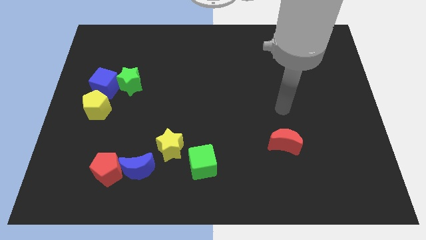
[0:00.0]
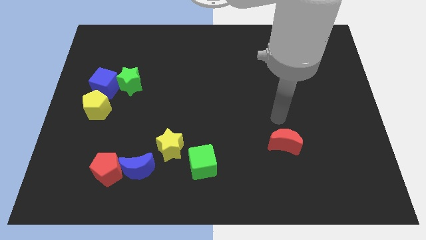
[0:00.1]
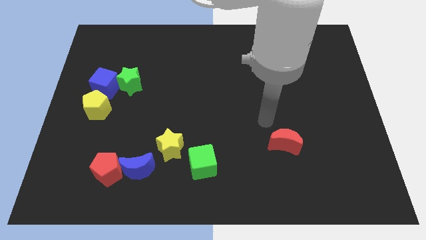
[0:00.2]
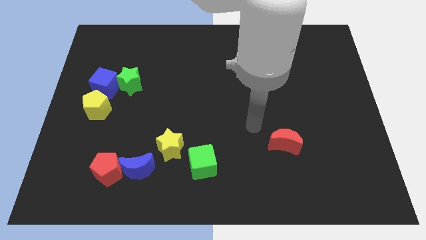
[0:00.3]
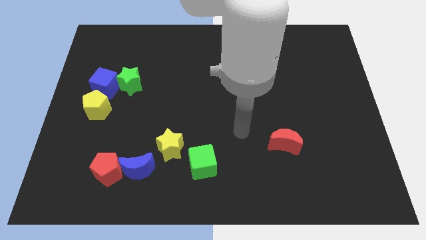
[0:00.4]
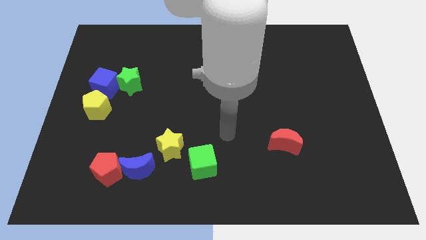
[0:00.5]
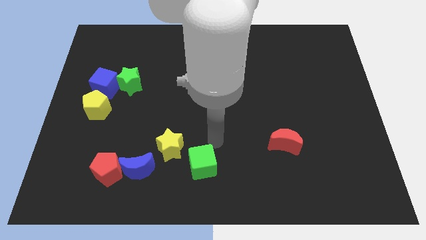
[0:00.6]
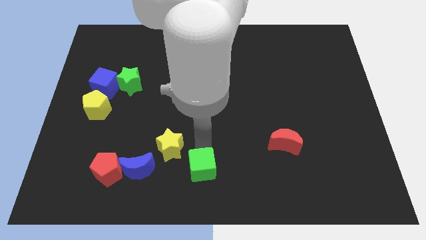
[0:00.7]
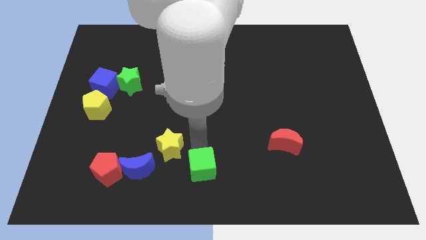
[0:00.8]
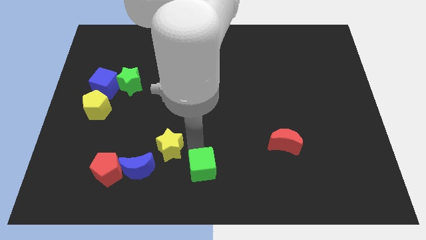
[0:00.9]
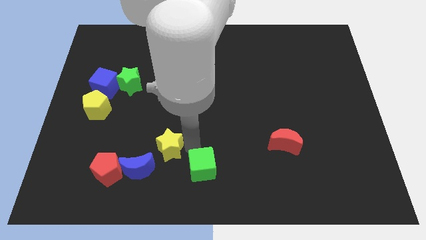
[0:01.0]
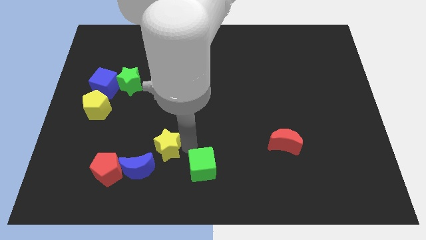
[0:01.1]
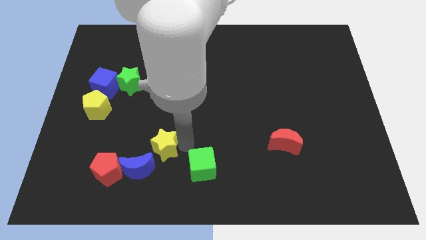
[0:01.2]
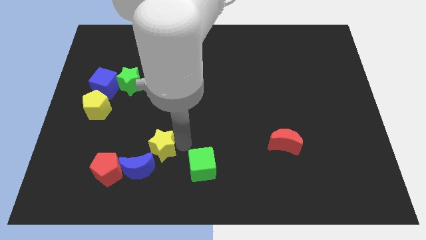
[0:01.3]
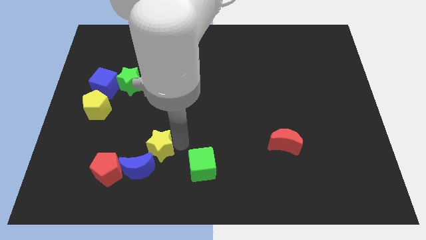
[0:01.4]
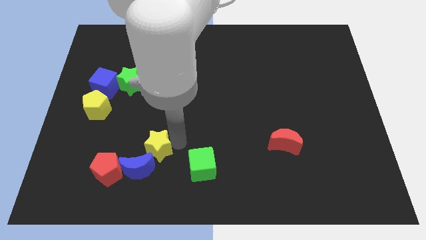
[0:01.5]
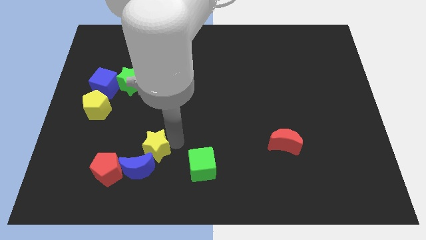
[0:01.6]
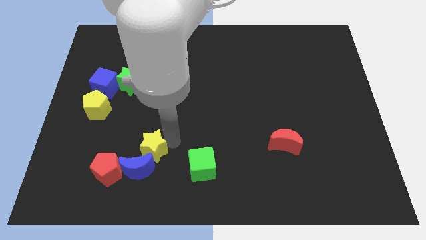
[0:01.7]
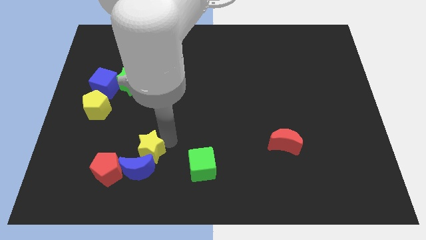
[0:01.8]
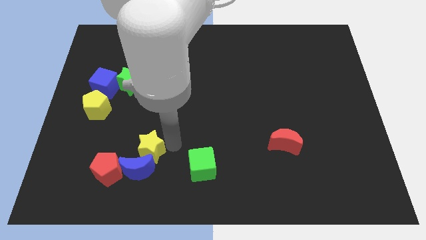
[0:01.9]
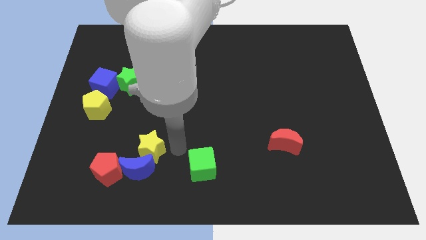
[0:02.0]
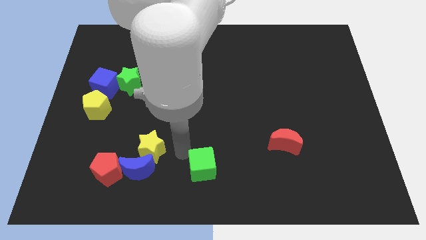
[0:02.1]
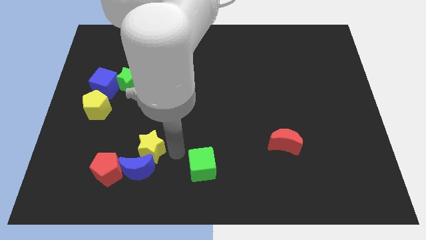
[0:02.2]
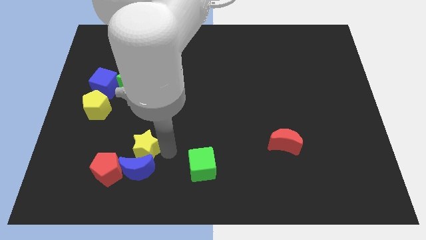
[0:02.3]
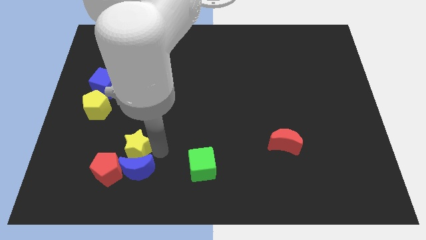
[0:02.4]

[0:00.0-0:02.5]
slide the yellow star left somewhat

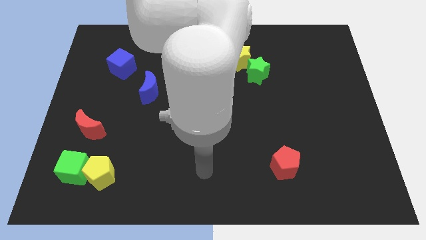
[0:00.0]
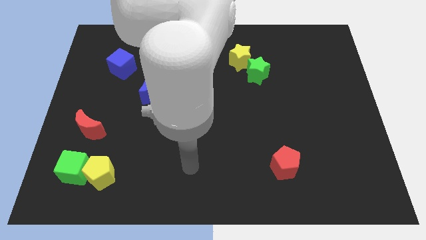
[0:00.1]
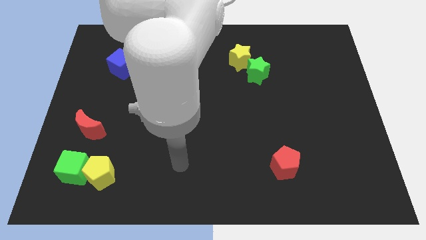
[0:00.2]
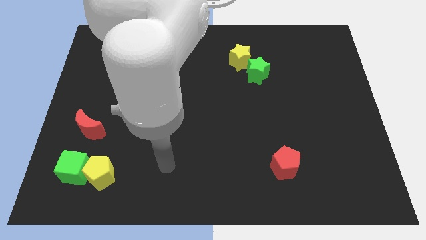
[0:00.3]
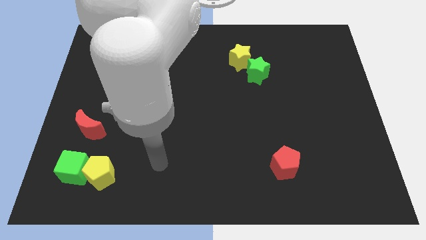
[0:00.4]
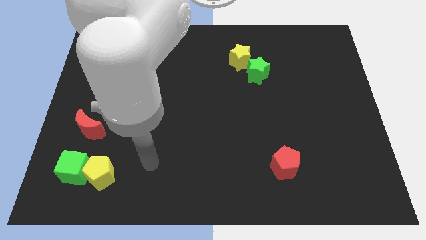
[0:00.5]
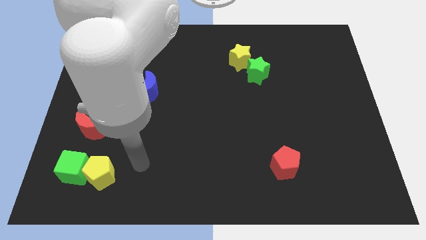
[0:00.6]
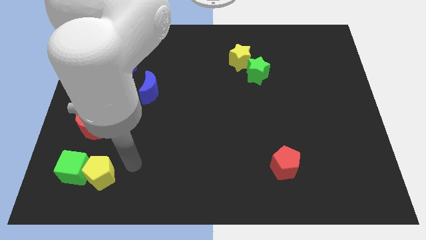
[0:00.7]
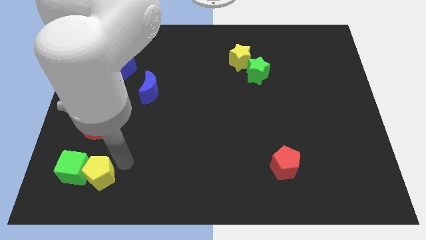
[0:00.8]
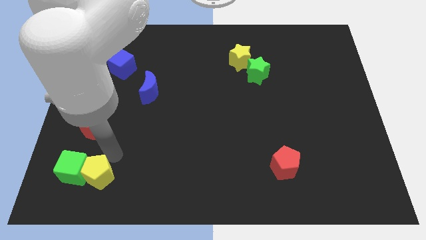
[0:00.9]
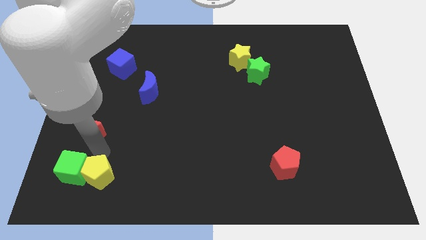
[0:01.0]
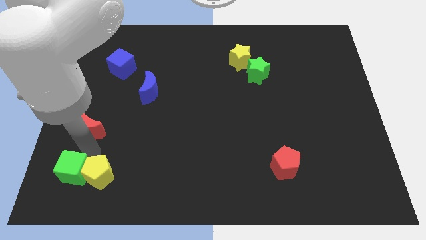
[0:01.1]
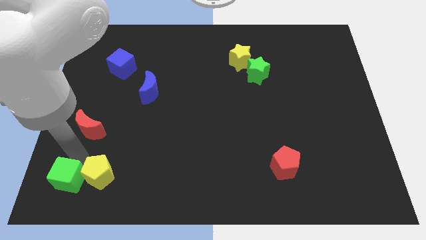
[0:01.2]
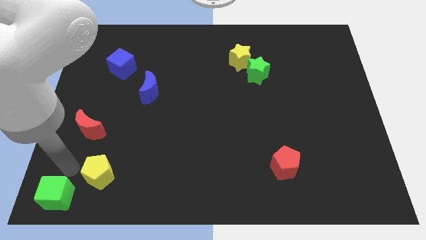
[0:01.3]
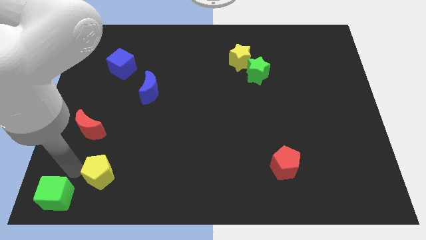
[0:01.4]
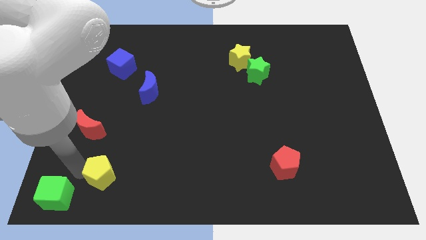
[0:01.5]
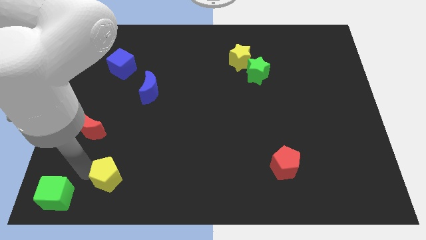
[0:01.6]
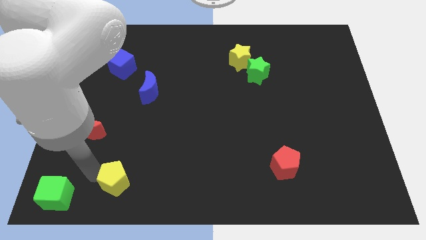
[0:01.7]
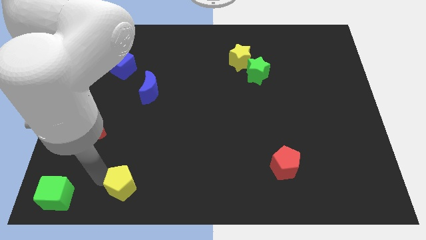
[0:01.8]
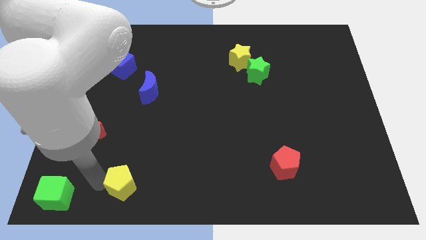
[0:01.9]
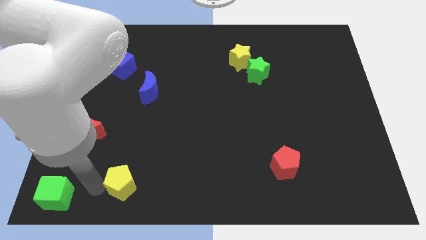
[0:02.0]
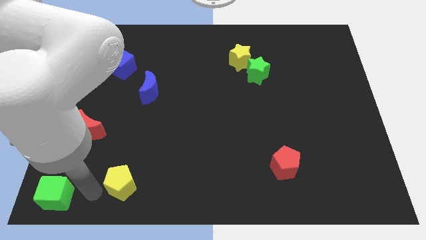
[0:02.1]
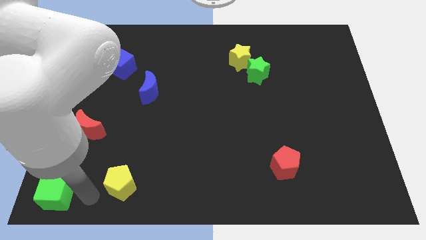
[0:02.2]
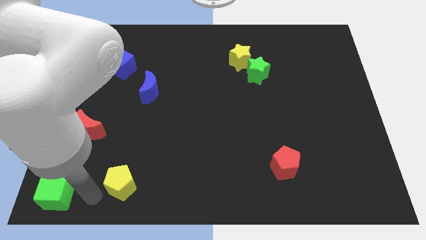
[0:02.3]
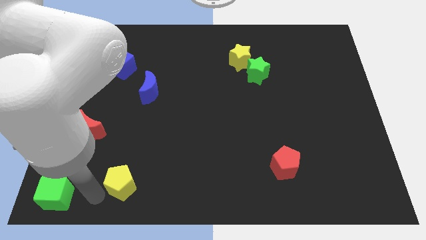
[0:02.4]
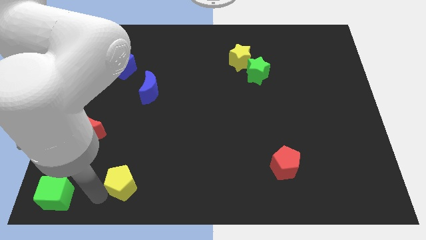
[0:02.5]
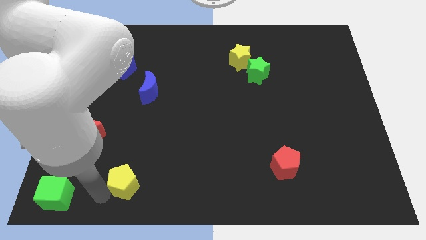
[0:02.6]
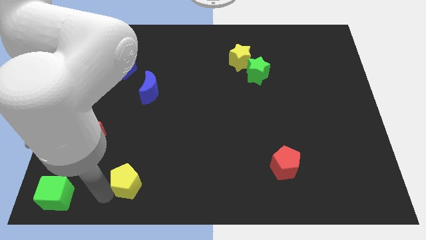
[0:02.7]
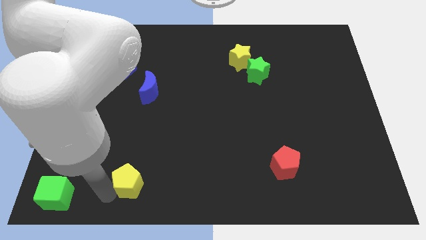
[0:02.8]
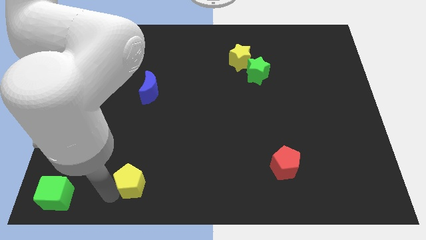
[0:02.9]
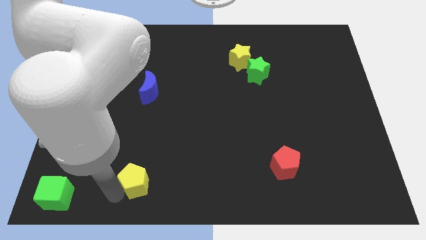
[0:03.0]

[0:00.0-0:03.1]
move the yellow pentagon a little to the right

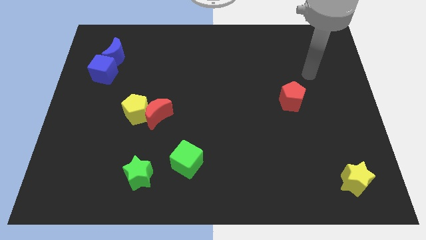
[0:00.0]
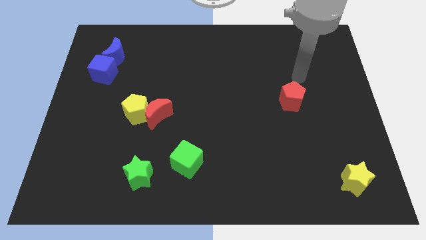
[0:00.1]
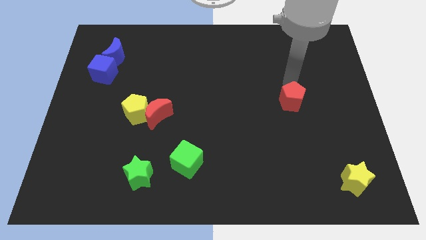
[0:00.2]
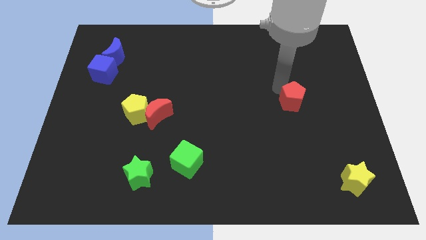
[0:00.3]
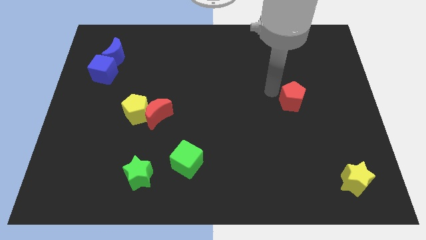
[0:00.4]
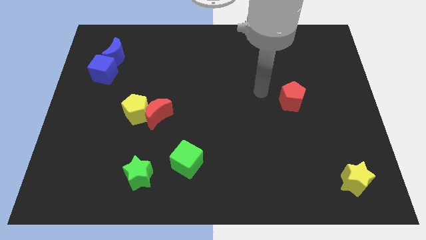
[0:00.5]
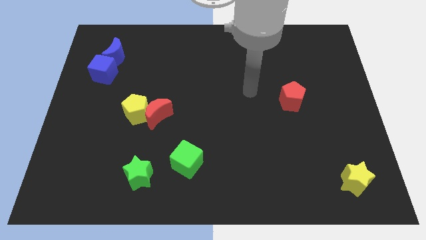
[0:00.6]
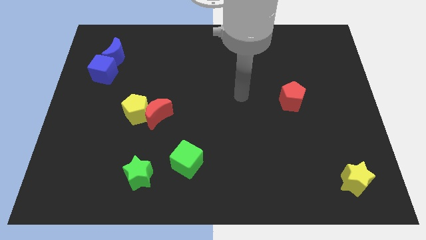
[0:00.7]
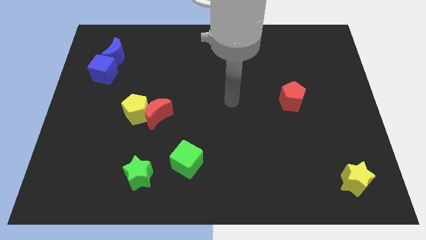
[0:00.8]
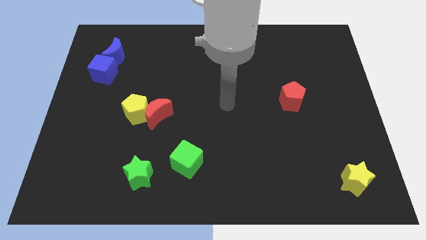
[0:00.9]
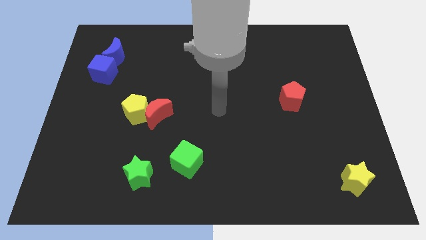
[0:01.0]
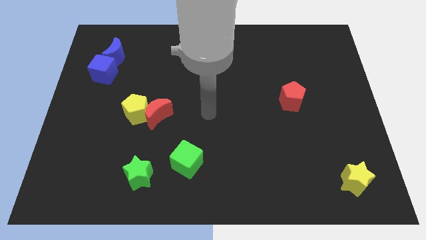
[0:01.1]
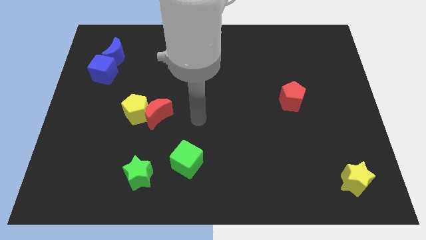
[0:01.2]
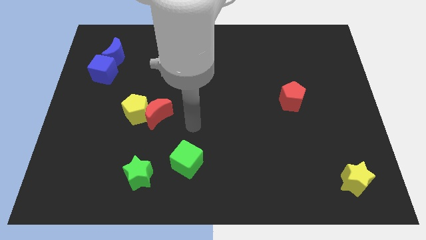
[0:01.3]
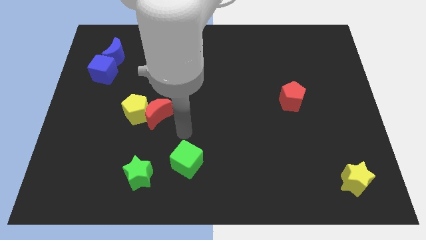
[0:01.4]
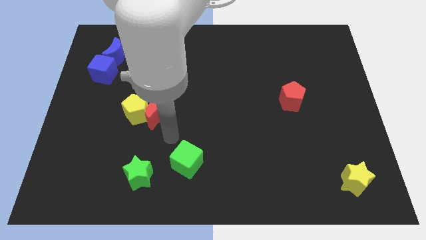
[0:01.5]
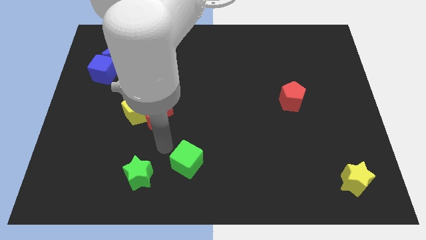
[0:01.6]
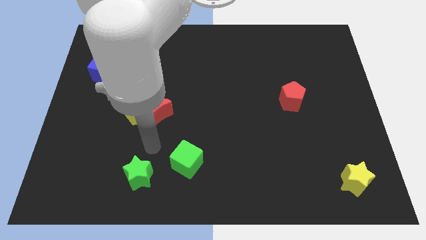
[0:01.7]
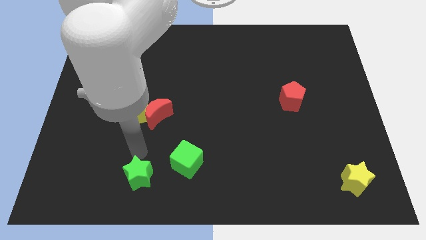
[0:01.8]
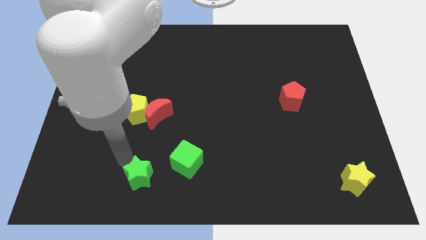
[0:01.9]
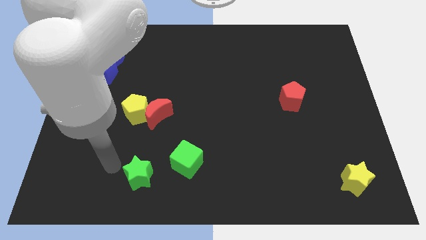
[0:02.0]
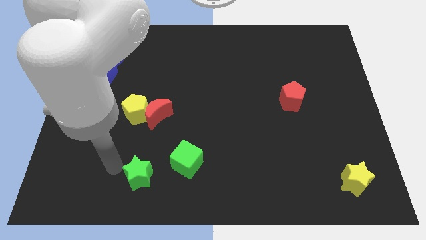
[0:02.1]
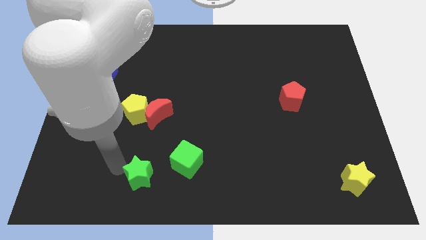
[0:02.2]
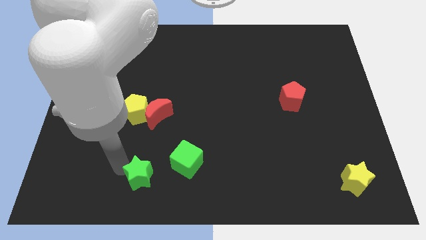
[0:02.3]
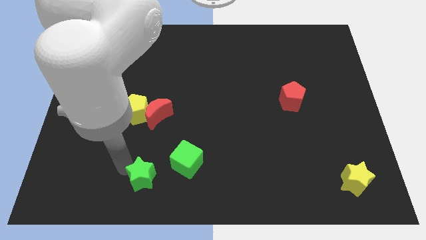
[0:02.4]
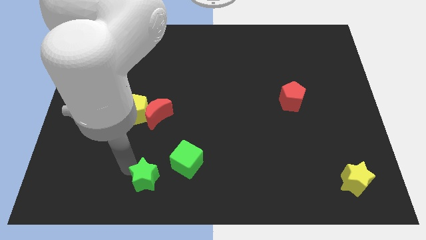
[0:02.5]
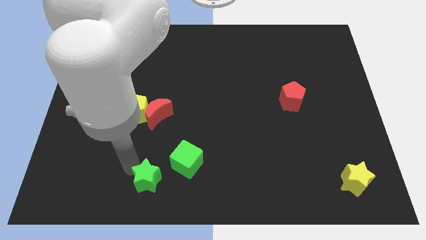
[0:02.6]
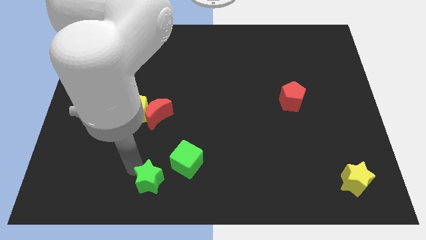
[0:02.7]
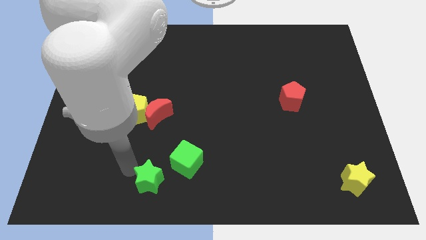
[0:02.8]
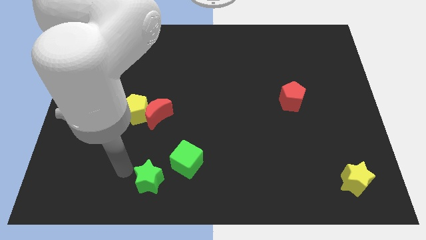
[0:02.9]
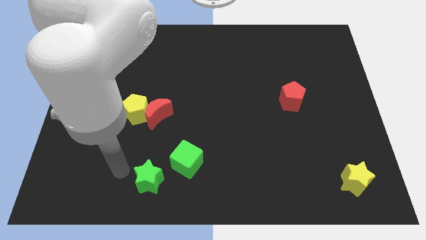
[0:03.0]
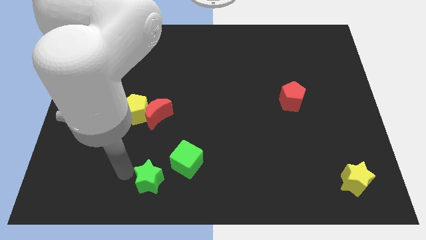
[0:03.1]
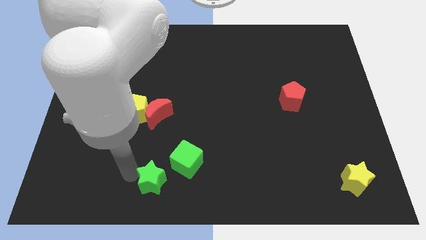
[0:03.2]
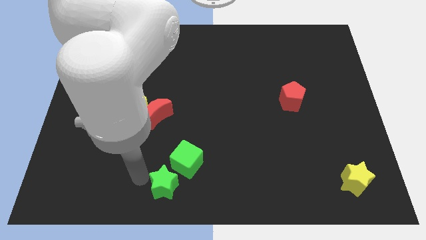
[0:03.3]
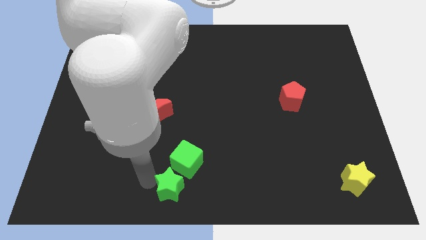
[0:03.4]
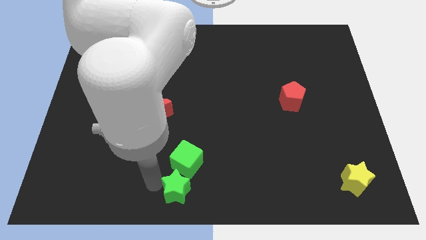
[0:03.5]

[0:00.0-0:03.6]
slide the green star somewhat right
